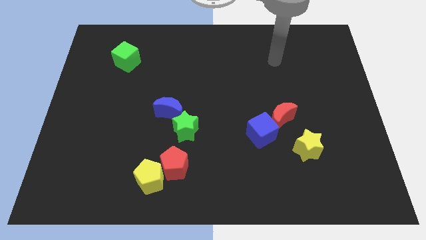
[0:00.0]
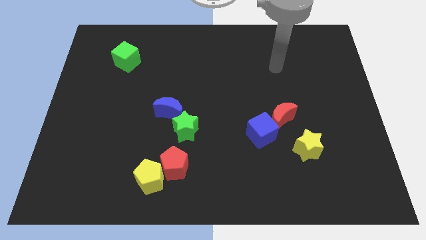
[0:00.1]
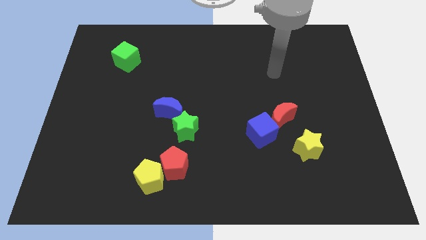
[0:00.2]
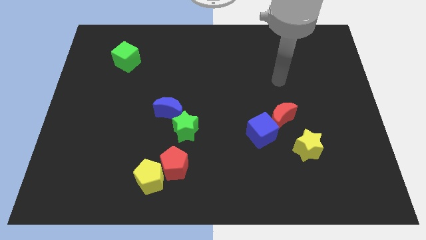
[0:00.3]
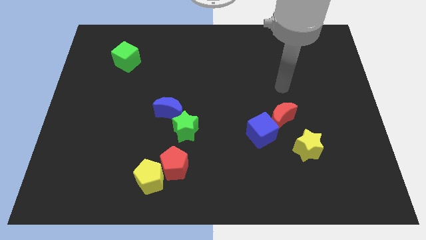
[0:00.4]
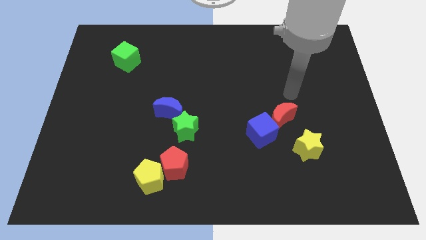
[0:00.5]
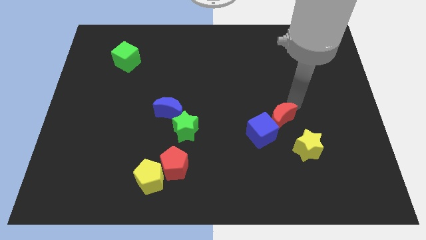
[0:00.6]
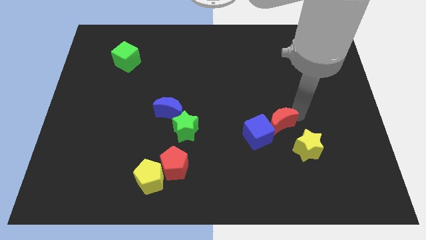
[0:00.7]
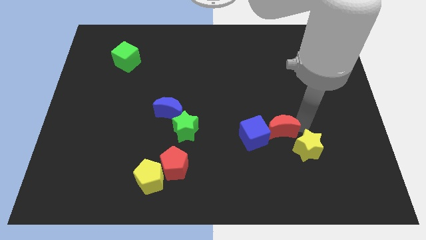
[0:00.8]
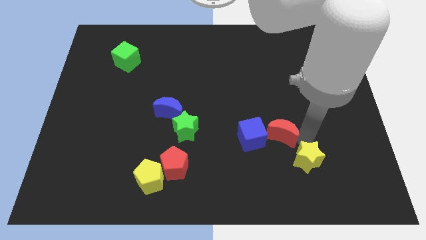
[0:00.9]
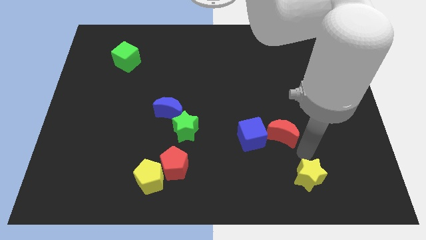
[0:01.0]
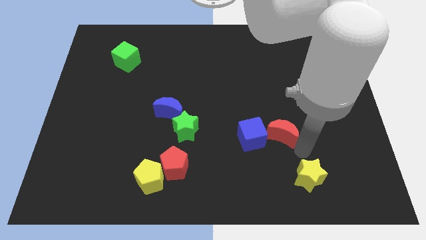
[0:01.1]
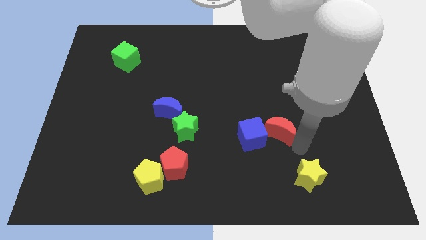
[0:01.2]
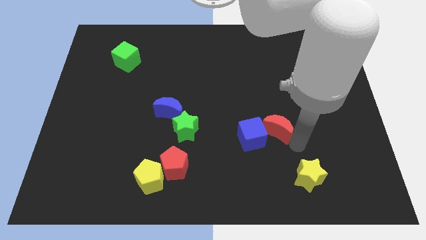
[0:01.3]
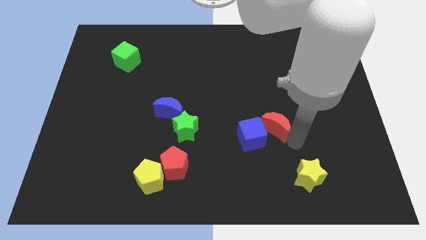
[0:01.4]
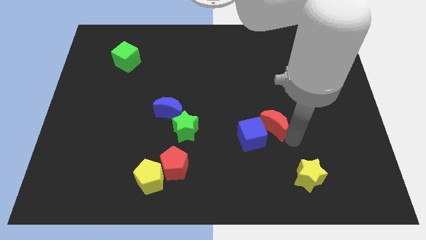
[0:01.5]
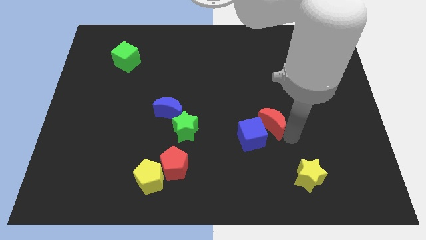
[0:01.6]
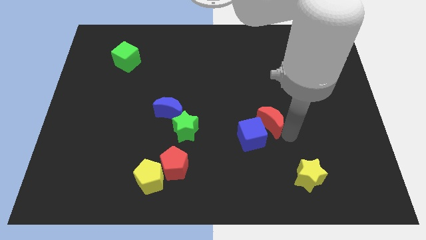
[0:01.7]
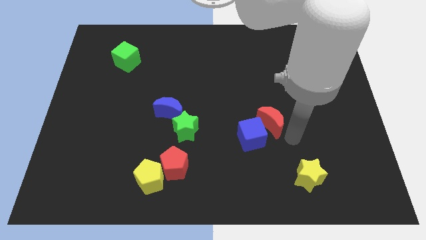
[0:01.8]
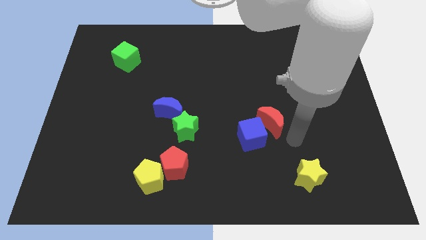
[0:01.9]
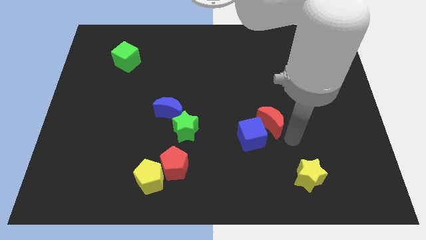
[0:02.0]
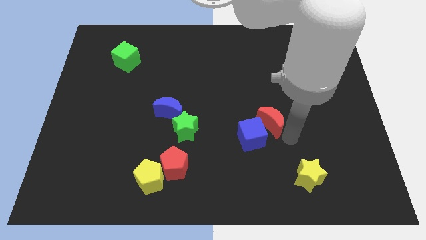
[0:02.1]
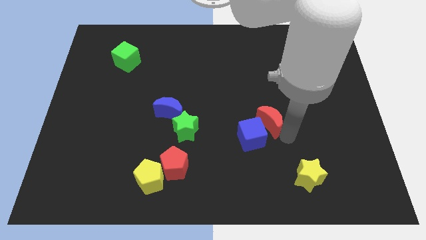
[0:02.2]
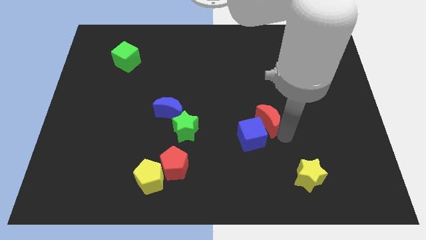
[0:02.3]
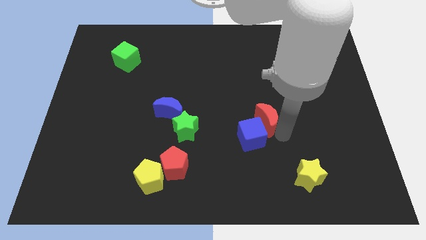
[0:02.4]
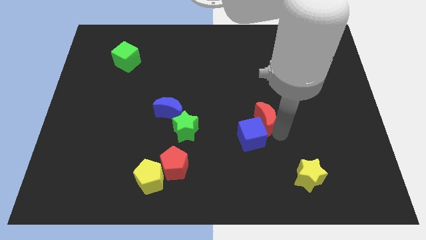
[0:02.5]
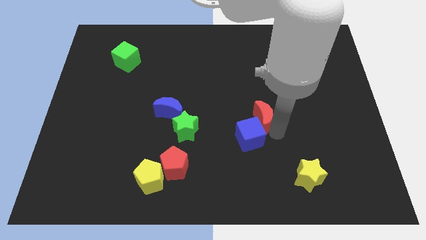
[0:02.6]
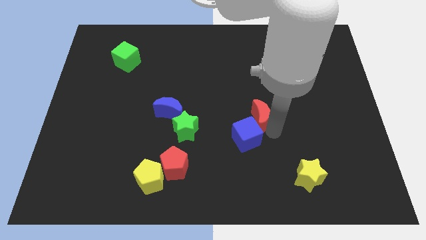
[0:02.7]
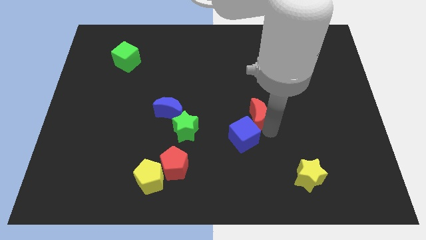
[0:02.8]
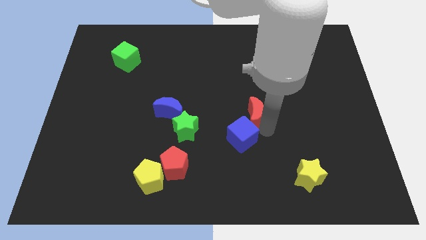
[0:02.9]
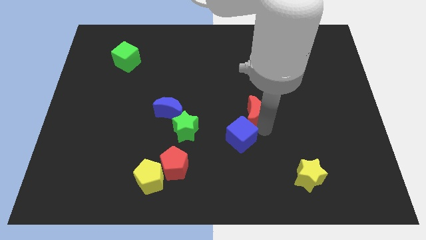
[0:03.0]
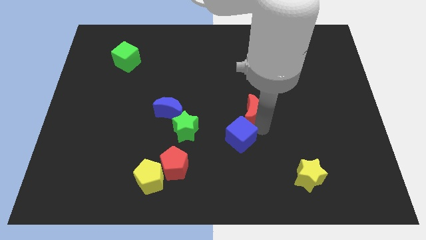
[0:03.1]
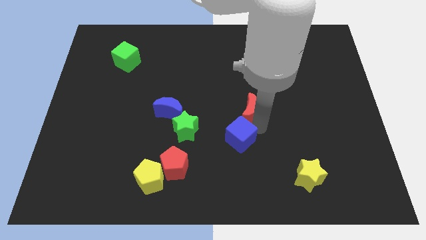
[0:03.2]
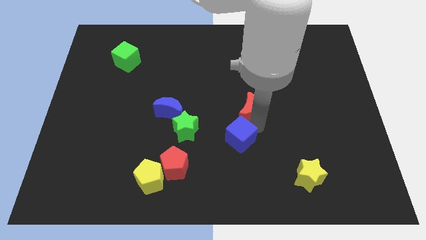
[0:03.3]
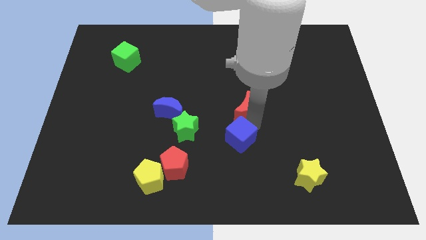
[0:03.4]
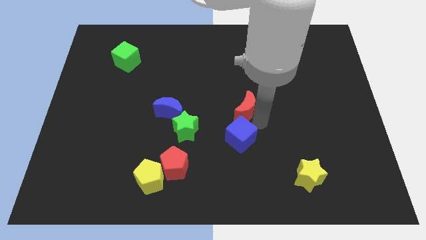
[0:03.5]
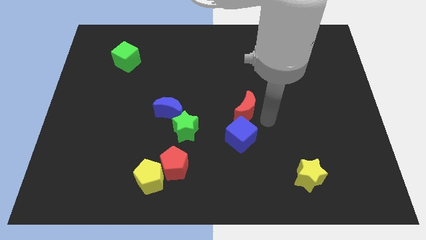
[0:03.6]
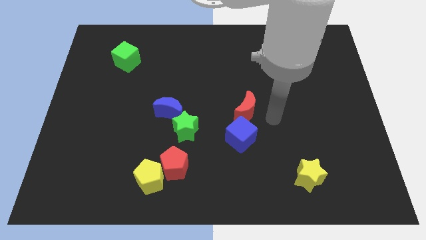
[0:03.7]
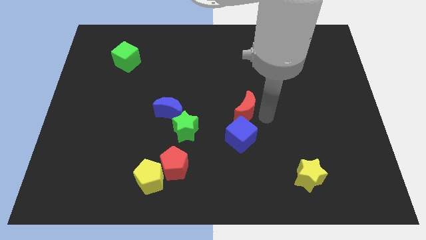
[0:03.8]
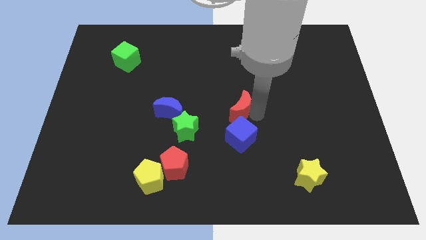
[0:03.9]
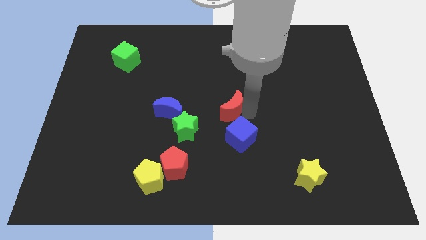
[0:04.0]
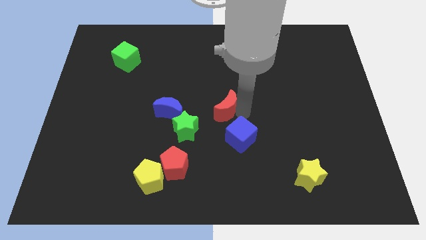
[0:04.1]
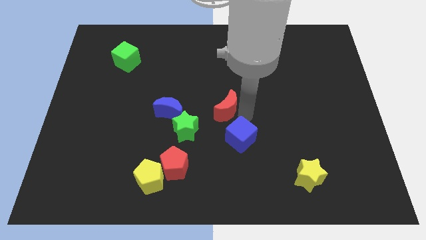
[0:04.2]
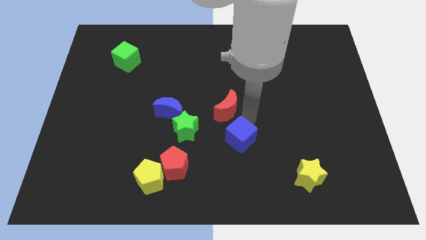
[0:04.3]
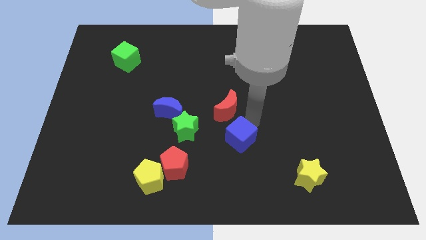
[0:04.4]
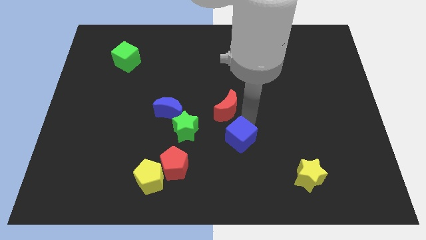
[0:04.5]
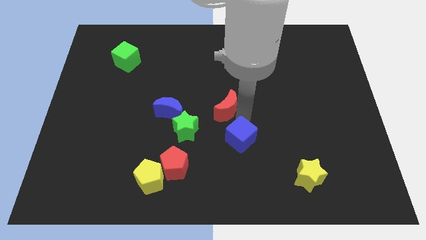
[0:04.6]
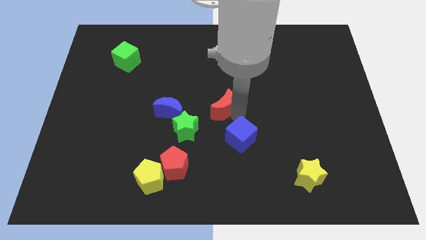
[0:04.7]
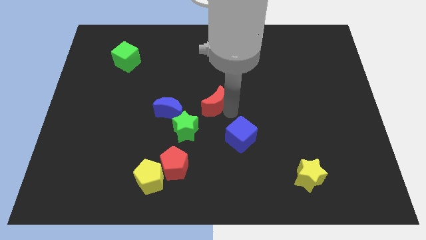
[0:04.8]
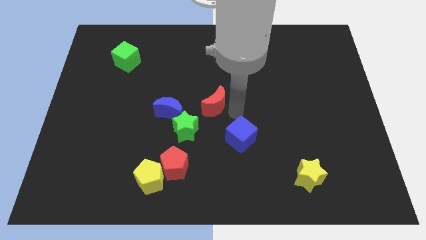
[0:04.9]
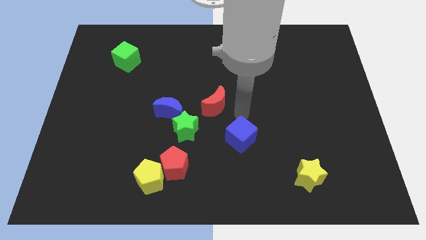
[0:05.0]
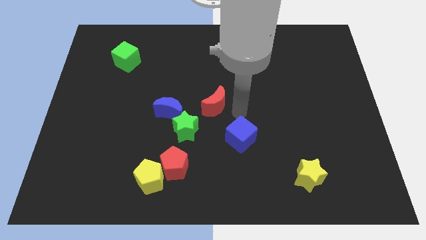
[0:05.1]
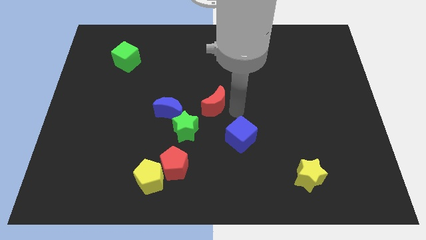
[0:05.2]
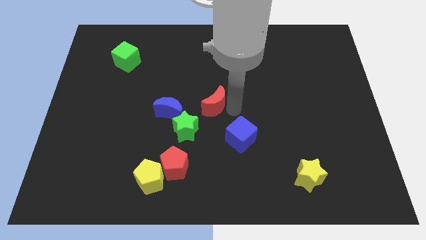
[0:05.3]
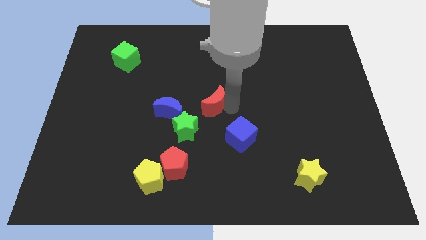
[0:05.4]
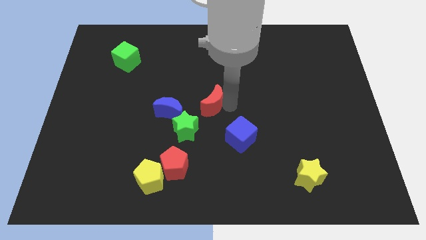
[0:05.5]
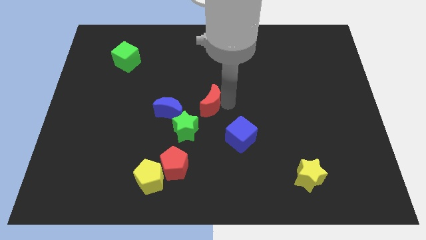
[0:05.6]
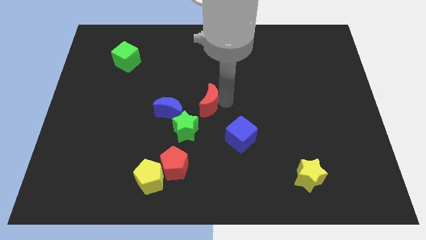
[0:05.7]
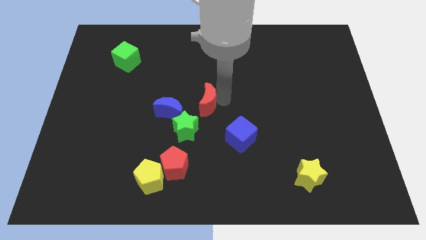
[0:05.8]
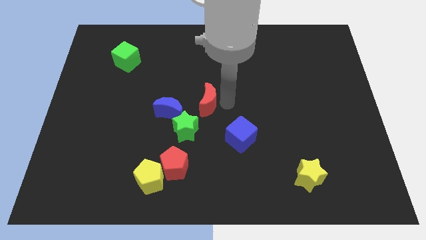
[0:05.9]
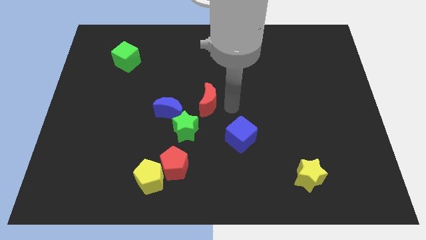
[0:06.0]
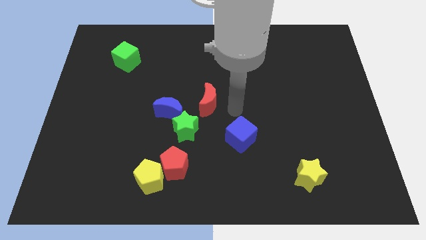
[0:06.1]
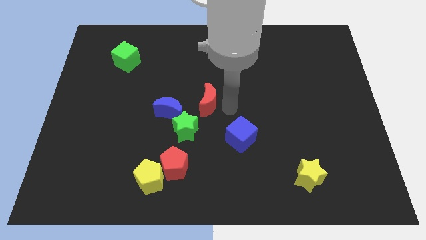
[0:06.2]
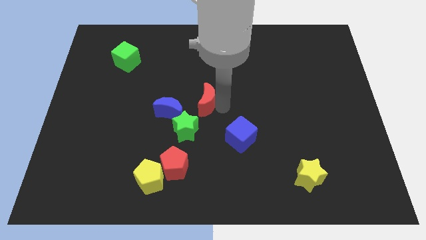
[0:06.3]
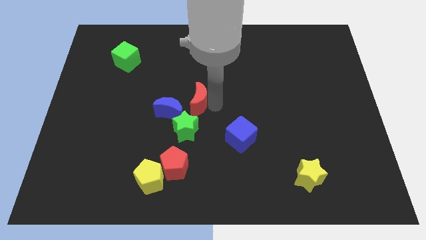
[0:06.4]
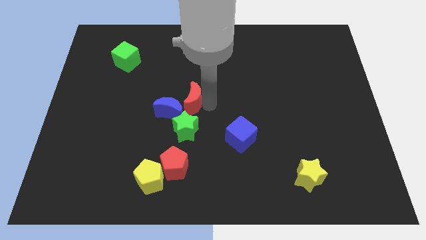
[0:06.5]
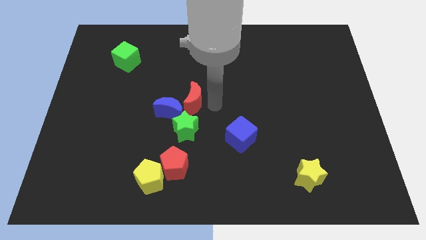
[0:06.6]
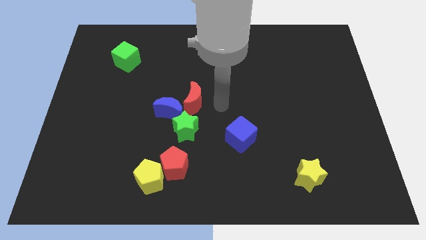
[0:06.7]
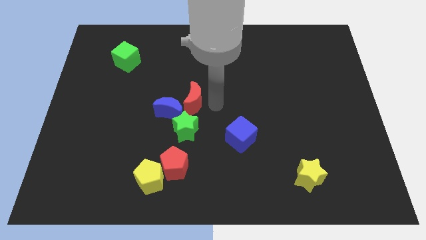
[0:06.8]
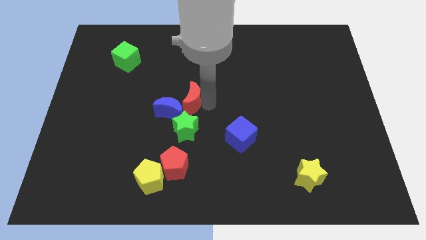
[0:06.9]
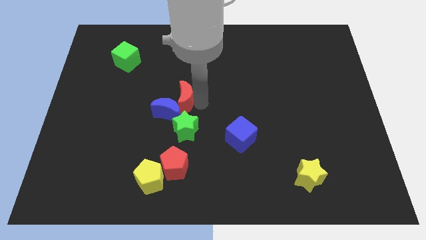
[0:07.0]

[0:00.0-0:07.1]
move the red moon left

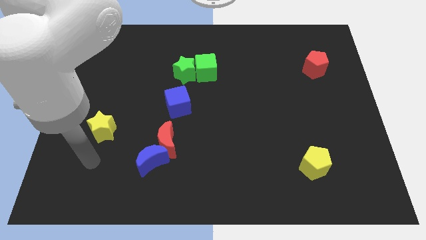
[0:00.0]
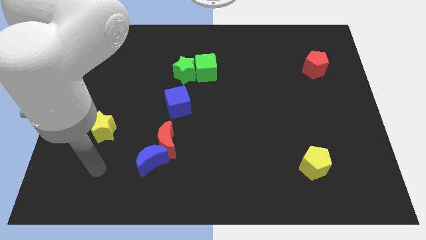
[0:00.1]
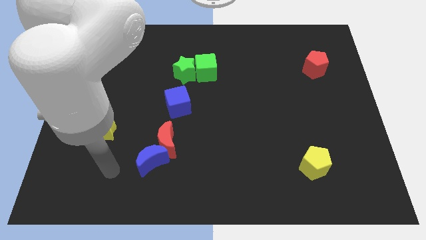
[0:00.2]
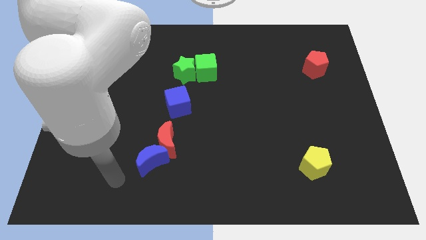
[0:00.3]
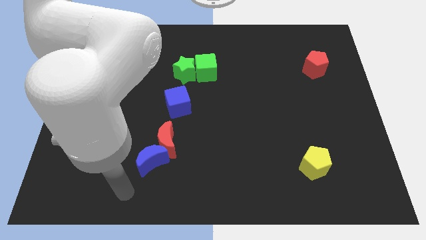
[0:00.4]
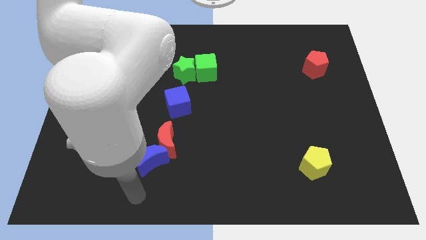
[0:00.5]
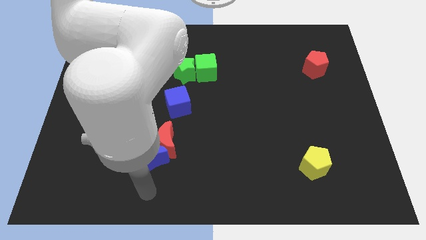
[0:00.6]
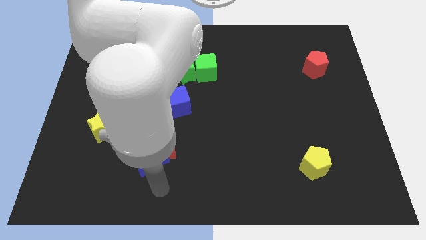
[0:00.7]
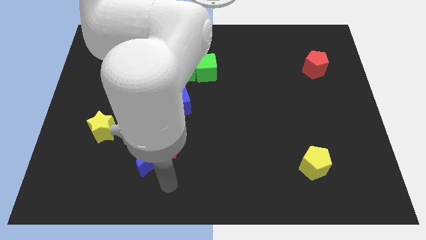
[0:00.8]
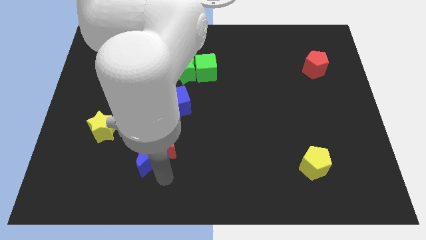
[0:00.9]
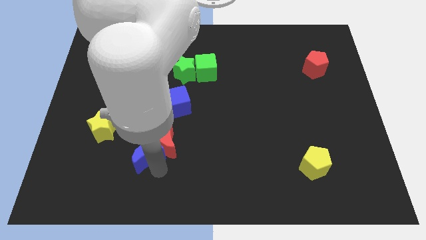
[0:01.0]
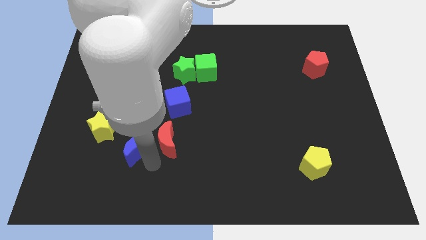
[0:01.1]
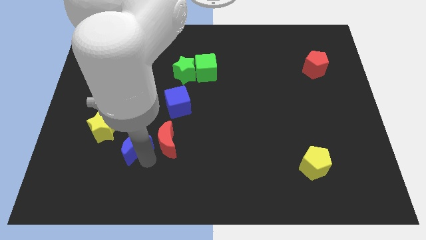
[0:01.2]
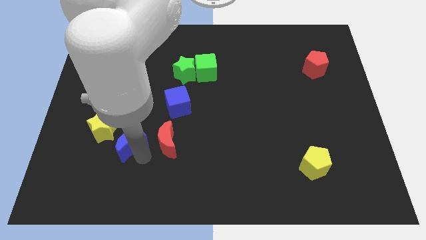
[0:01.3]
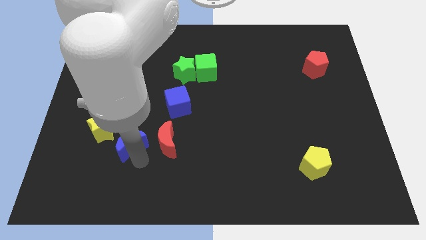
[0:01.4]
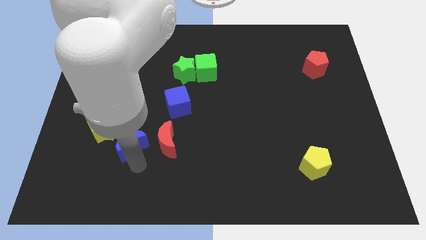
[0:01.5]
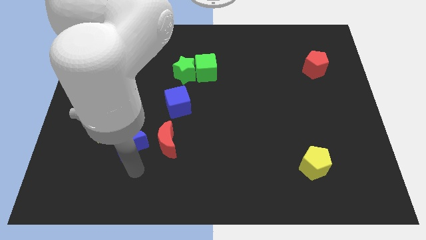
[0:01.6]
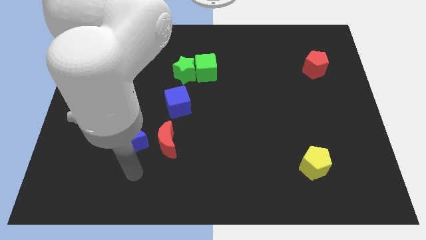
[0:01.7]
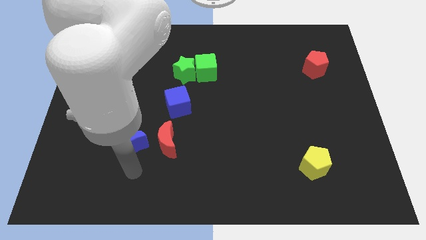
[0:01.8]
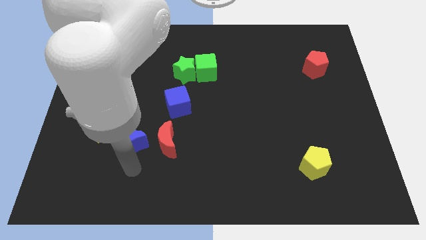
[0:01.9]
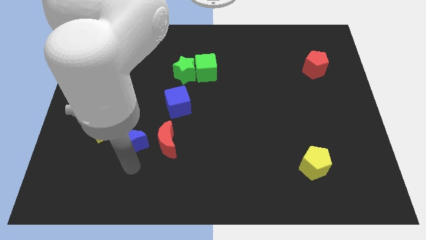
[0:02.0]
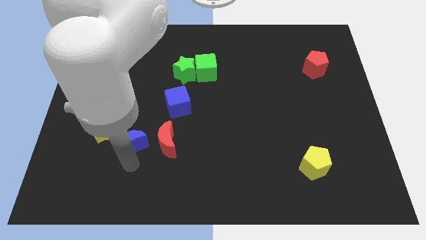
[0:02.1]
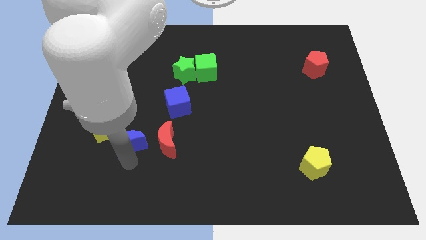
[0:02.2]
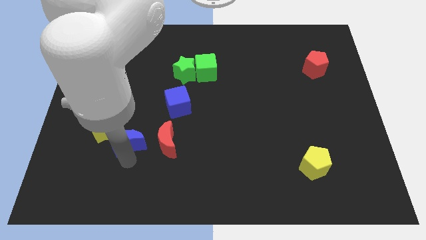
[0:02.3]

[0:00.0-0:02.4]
move the blue moon somewhat upwards and to the left
